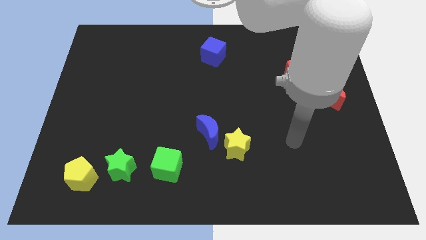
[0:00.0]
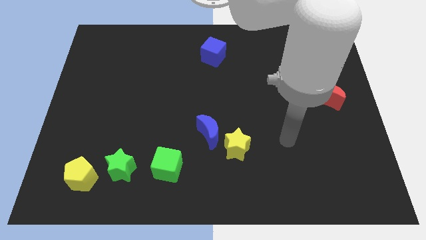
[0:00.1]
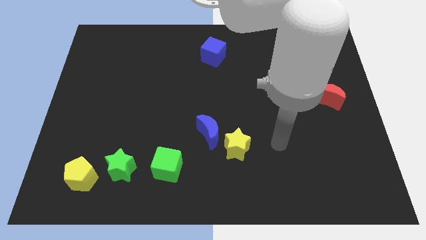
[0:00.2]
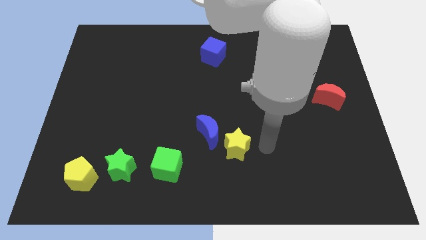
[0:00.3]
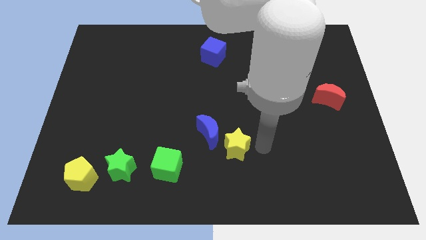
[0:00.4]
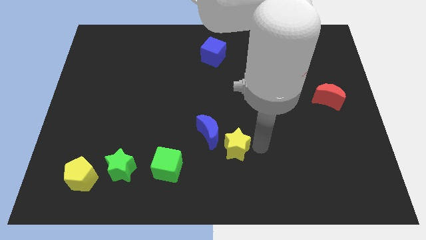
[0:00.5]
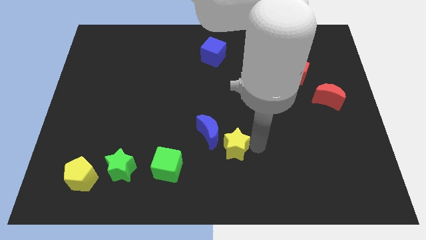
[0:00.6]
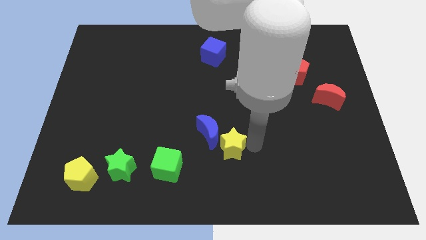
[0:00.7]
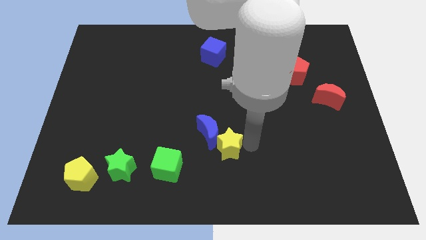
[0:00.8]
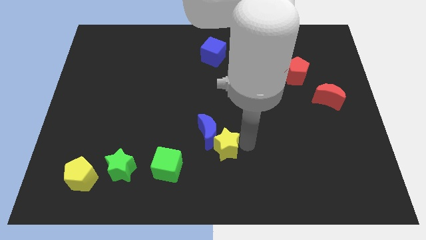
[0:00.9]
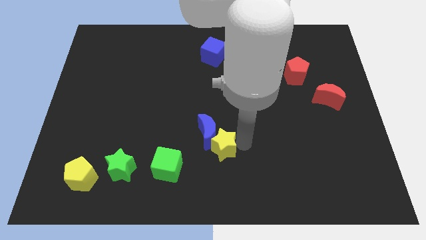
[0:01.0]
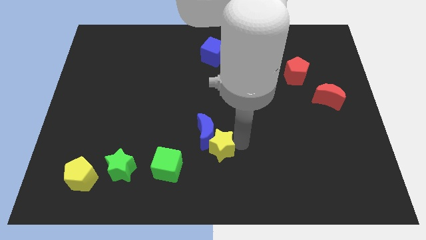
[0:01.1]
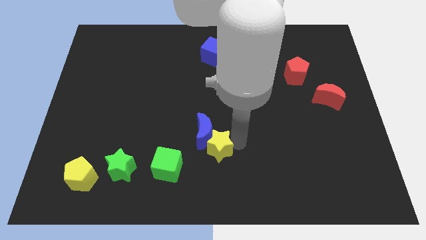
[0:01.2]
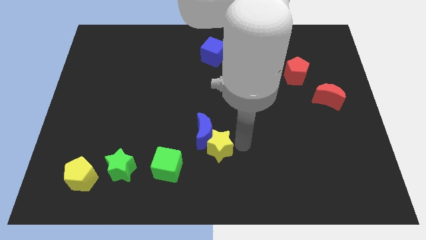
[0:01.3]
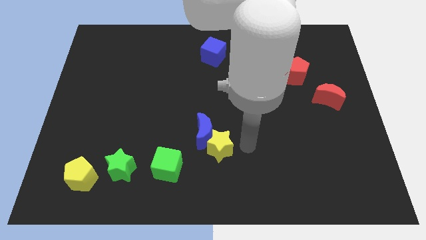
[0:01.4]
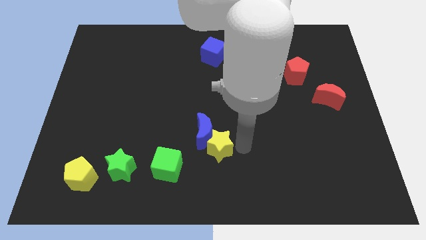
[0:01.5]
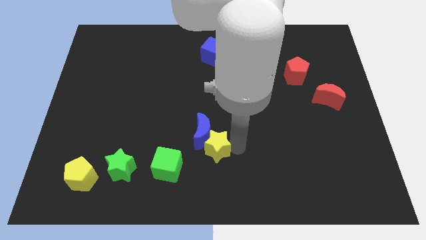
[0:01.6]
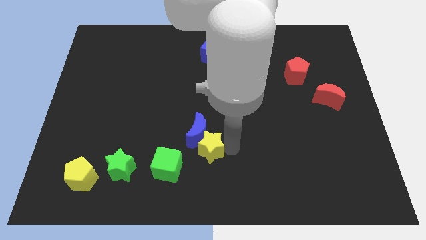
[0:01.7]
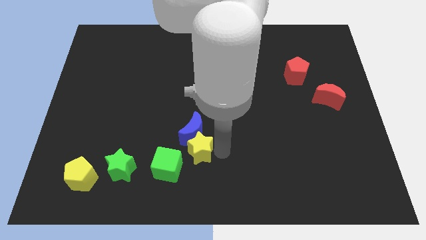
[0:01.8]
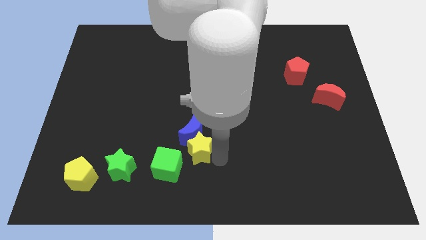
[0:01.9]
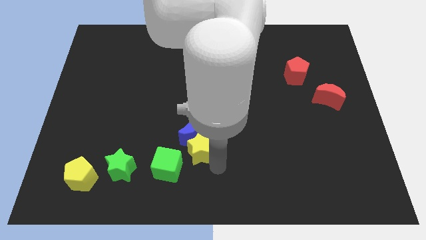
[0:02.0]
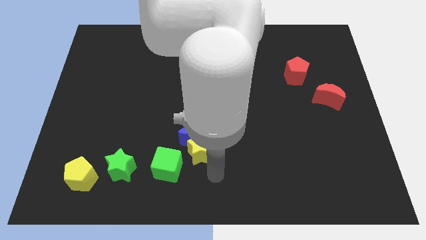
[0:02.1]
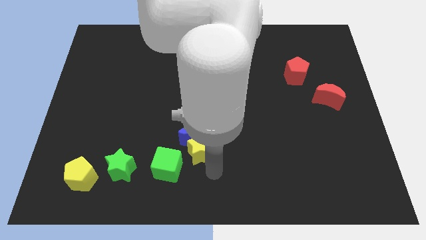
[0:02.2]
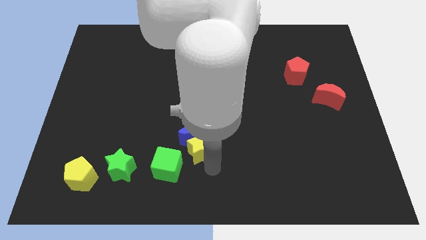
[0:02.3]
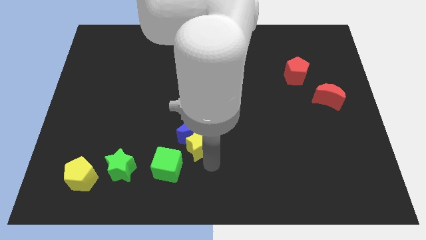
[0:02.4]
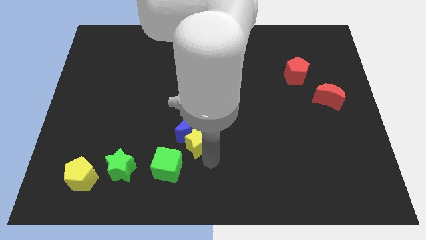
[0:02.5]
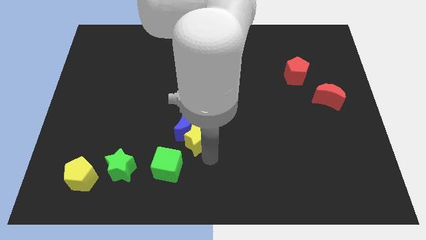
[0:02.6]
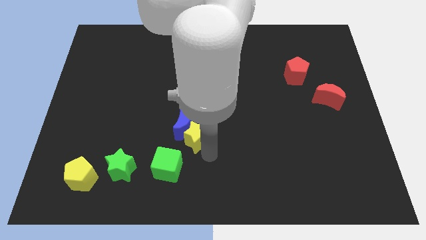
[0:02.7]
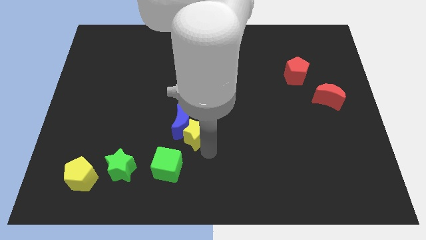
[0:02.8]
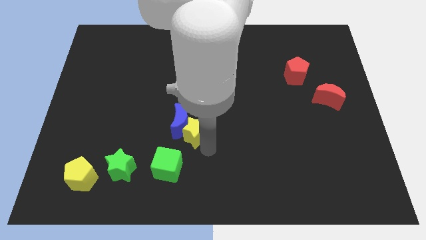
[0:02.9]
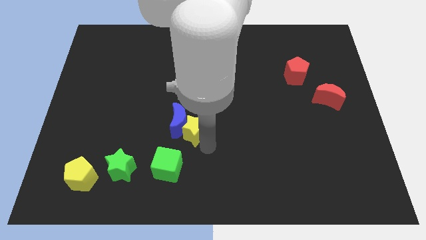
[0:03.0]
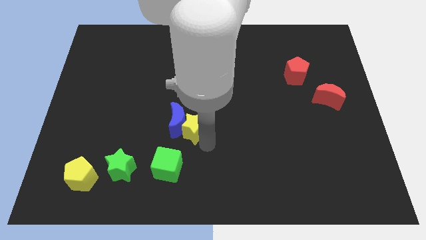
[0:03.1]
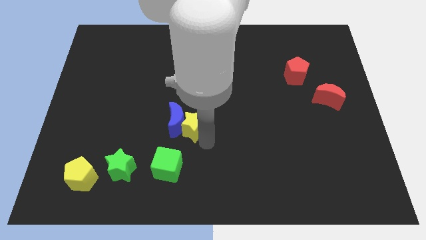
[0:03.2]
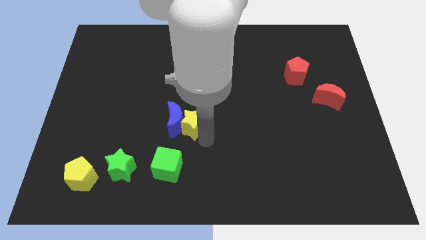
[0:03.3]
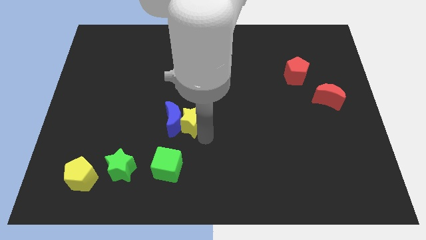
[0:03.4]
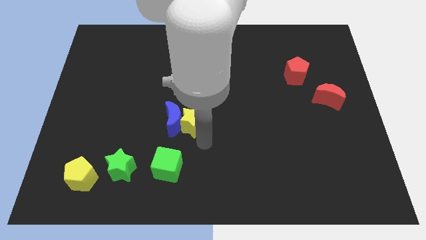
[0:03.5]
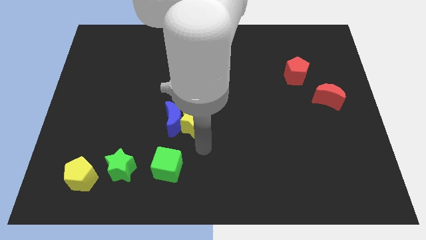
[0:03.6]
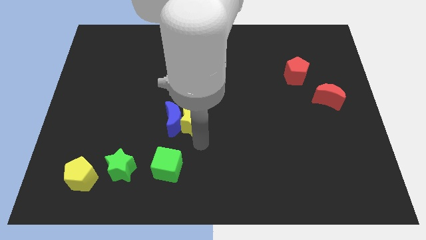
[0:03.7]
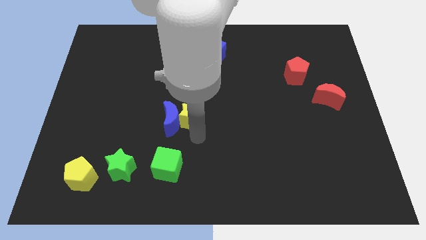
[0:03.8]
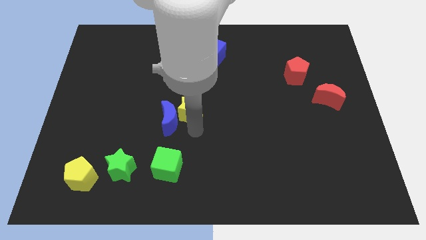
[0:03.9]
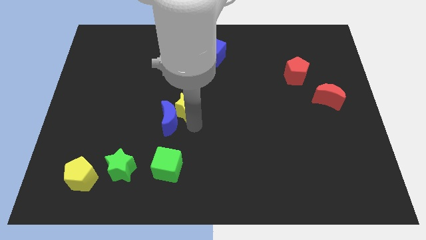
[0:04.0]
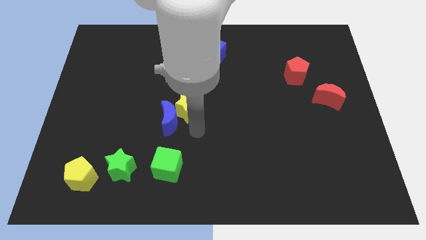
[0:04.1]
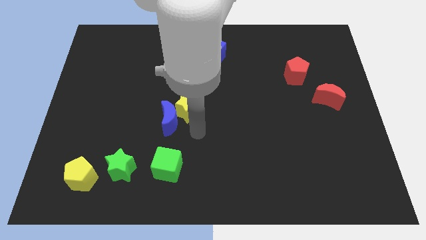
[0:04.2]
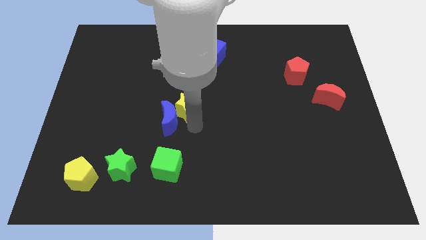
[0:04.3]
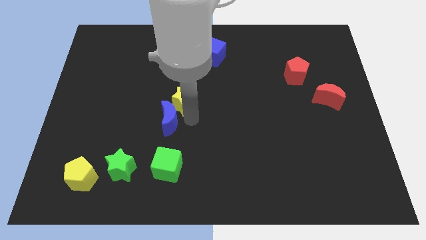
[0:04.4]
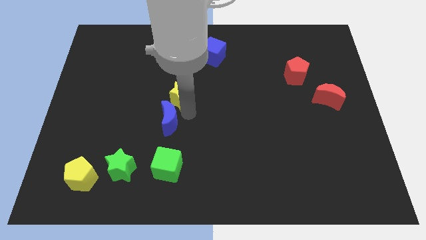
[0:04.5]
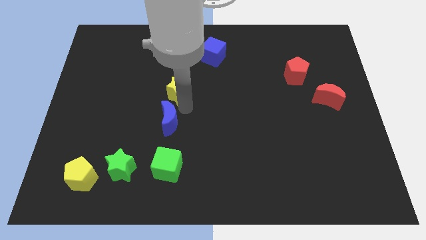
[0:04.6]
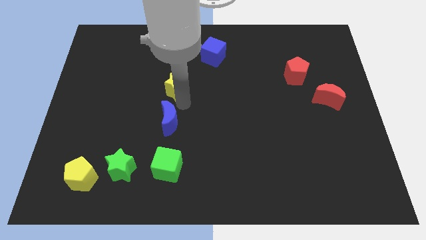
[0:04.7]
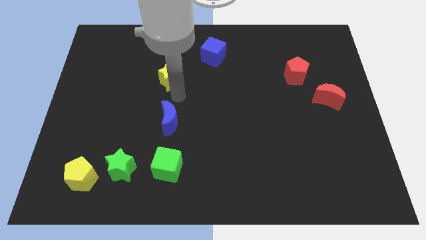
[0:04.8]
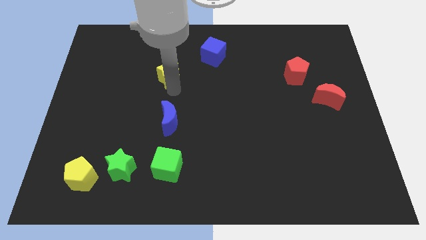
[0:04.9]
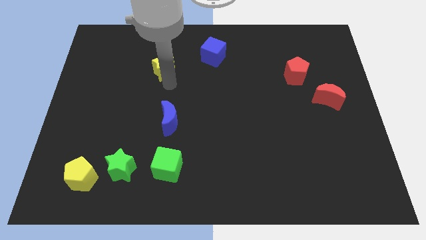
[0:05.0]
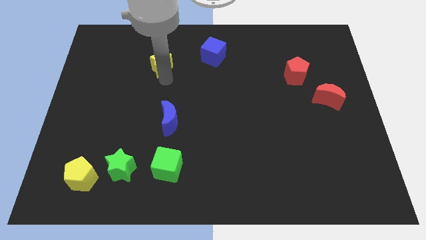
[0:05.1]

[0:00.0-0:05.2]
push the yellow star to the left side of the blue cube

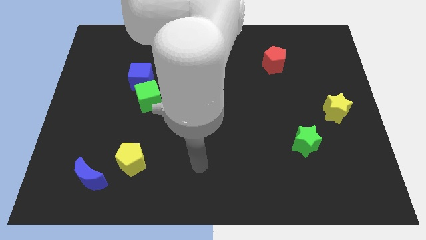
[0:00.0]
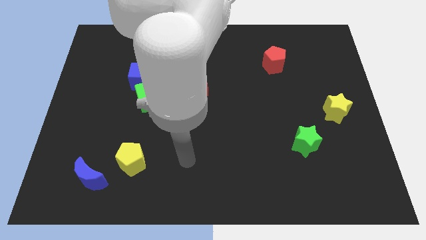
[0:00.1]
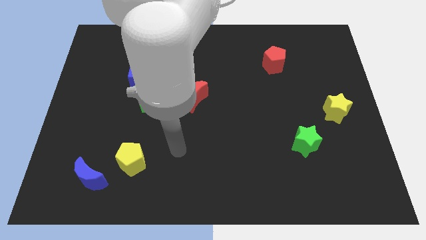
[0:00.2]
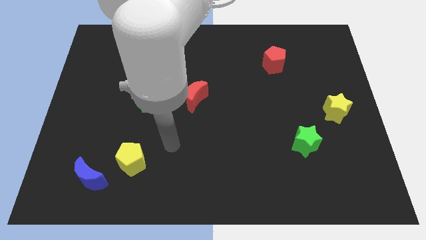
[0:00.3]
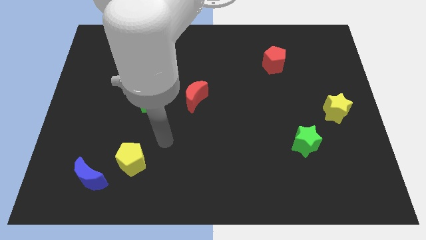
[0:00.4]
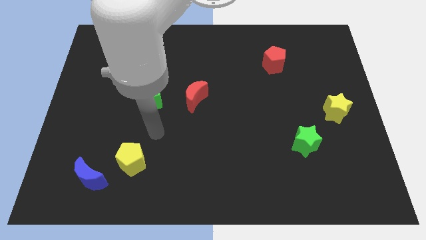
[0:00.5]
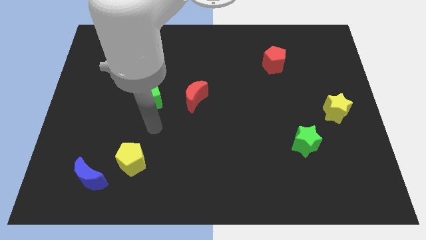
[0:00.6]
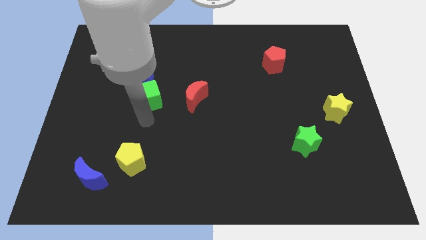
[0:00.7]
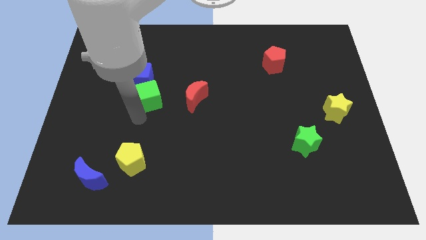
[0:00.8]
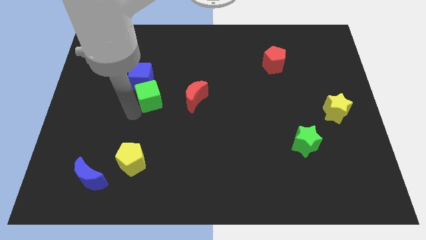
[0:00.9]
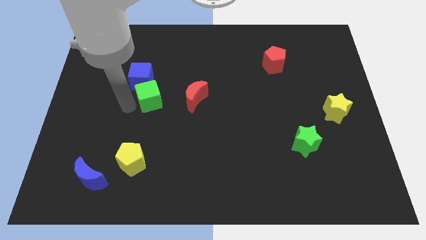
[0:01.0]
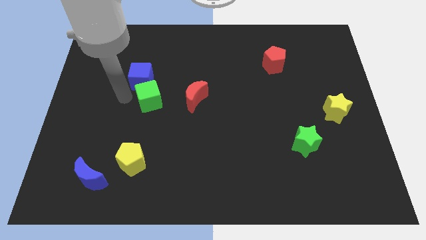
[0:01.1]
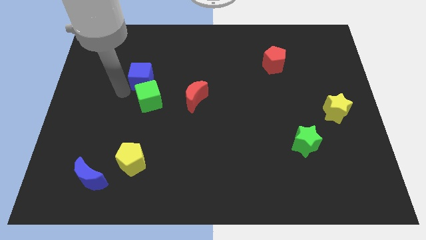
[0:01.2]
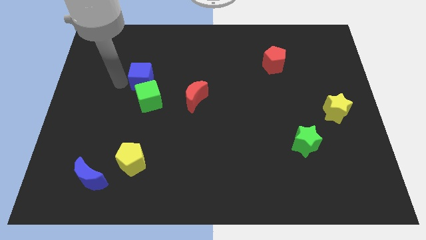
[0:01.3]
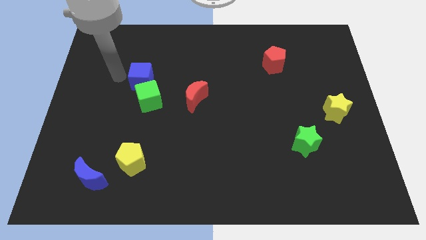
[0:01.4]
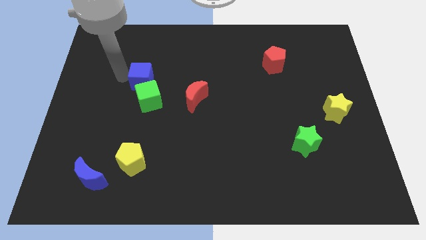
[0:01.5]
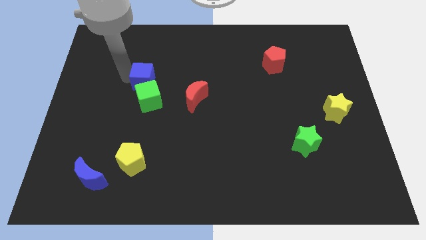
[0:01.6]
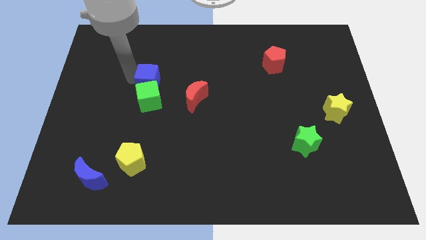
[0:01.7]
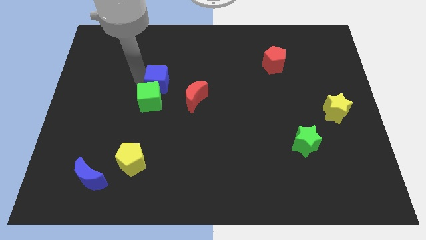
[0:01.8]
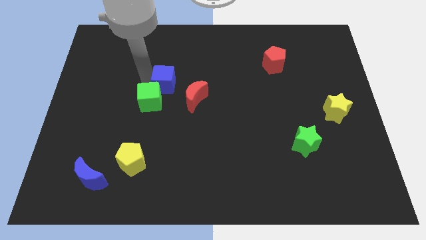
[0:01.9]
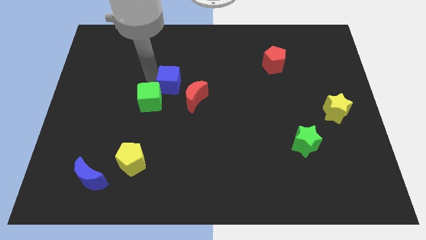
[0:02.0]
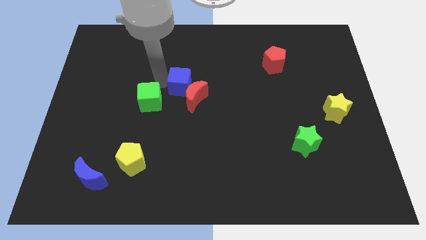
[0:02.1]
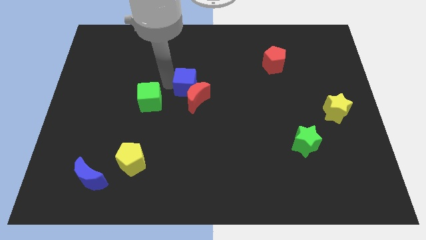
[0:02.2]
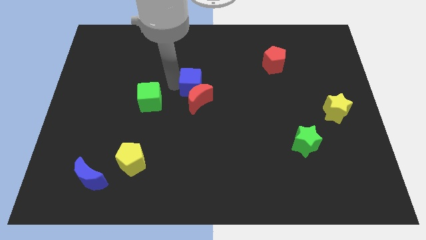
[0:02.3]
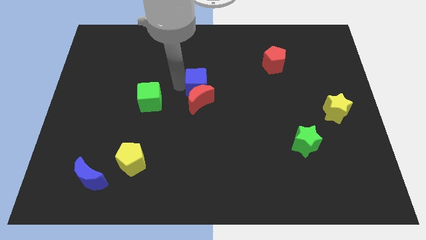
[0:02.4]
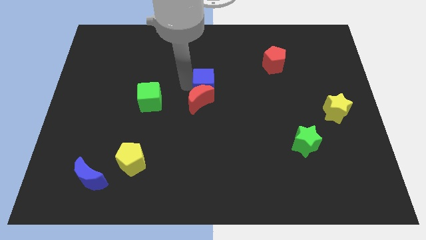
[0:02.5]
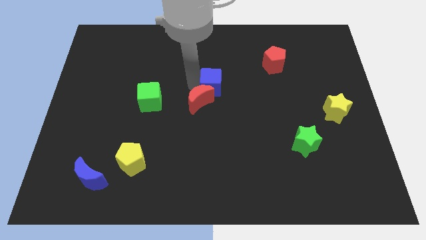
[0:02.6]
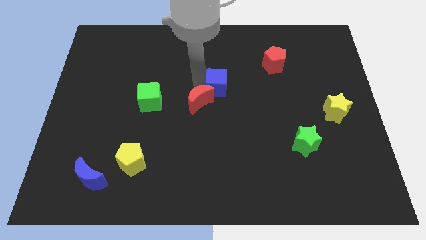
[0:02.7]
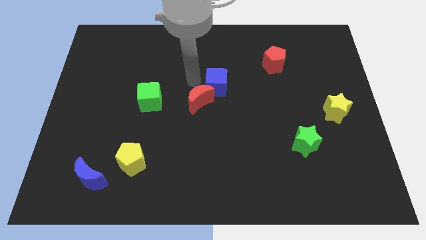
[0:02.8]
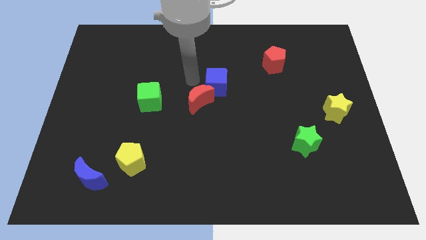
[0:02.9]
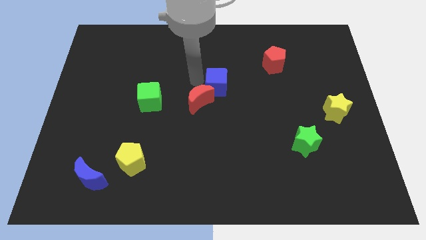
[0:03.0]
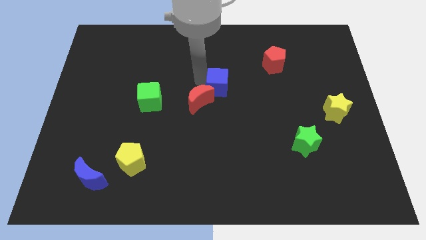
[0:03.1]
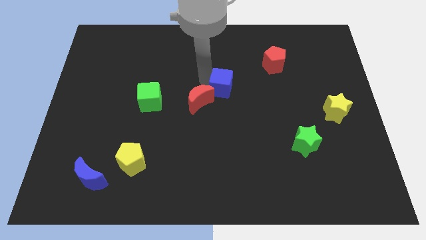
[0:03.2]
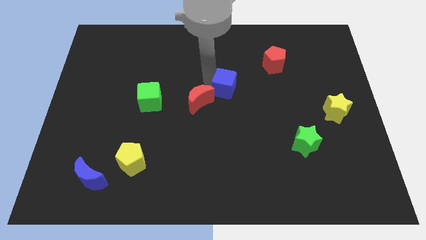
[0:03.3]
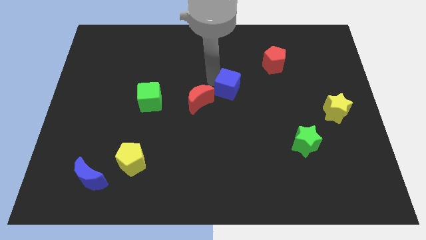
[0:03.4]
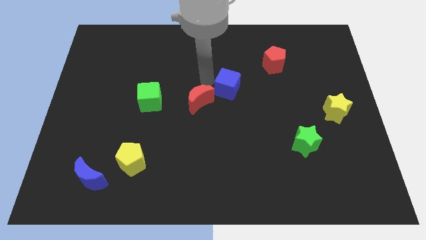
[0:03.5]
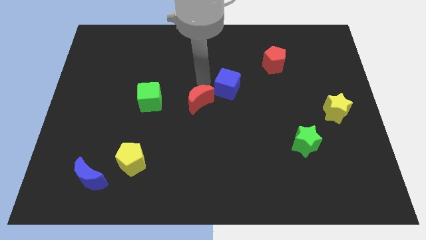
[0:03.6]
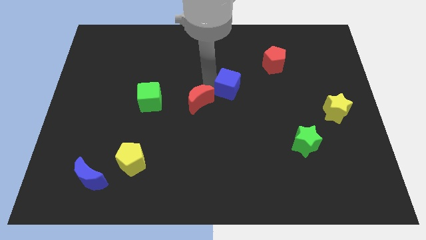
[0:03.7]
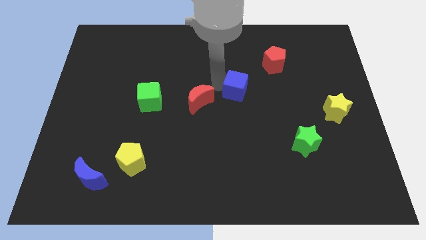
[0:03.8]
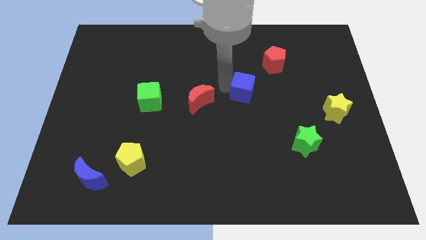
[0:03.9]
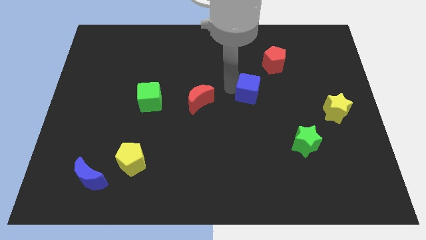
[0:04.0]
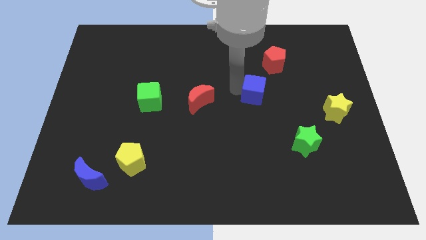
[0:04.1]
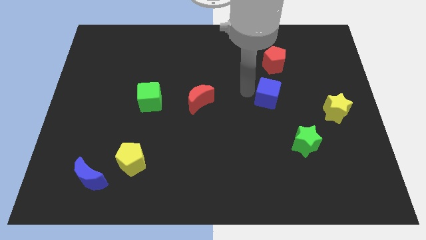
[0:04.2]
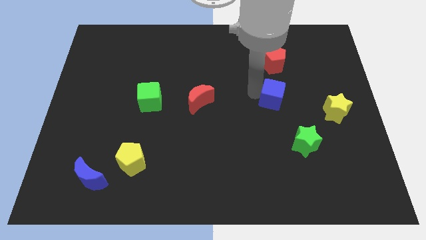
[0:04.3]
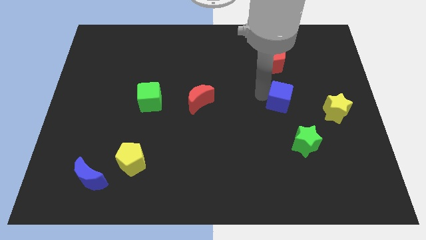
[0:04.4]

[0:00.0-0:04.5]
push the blue cube to the top side of the green star
